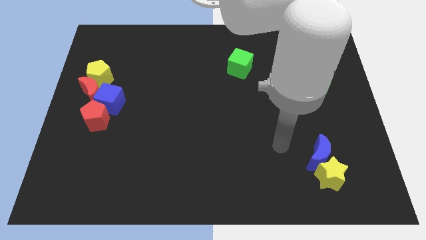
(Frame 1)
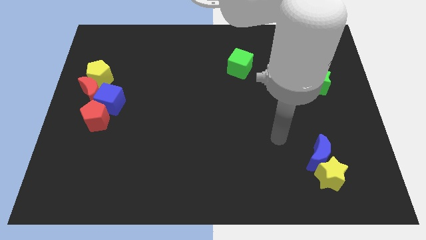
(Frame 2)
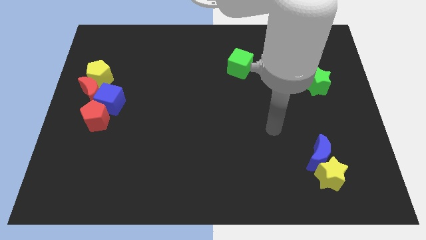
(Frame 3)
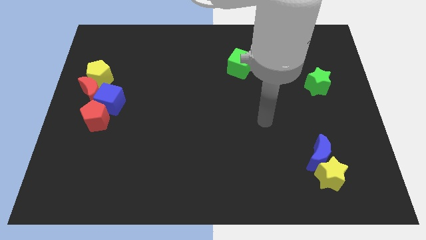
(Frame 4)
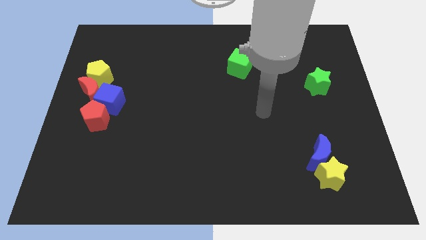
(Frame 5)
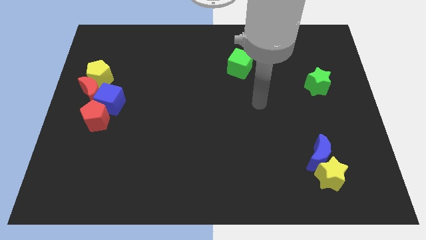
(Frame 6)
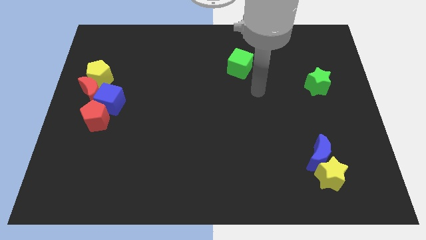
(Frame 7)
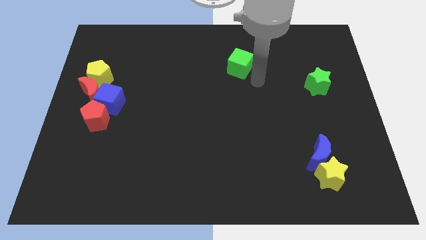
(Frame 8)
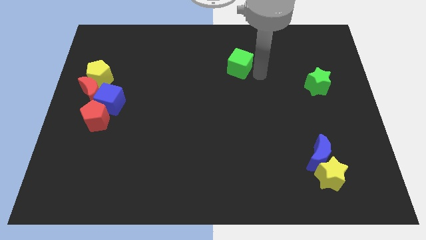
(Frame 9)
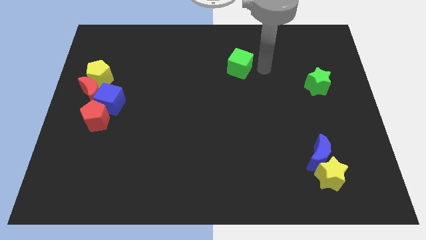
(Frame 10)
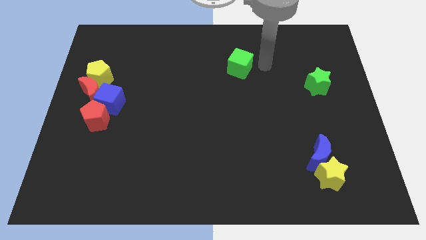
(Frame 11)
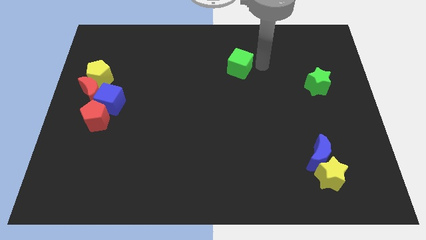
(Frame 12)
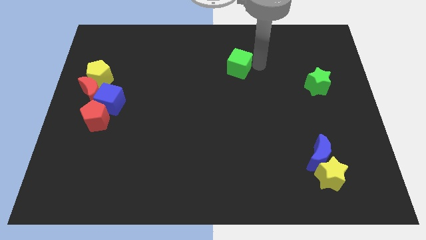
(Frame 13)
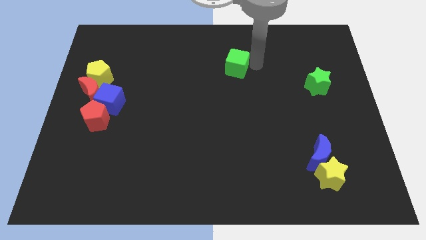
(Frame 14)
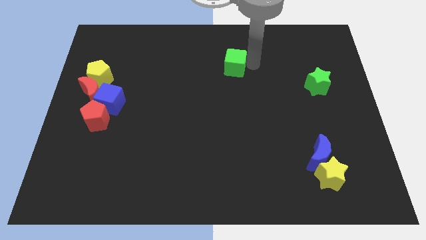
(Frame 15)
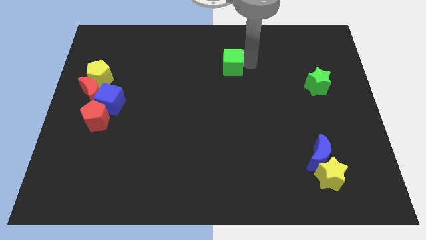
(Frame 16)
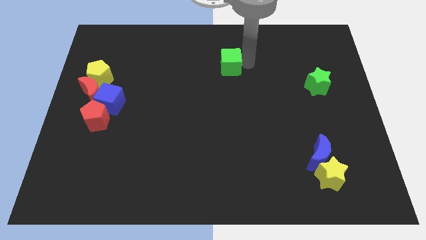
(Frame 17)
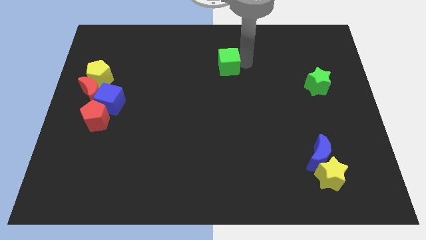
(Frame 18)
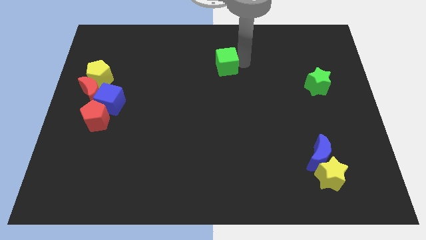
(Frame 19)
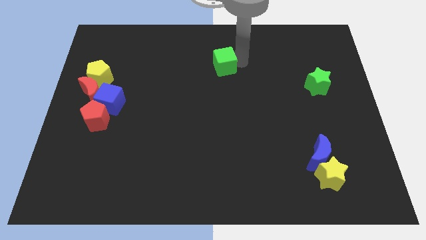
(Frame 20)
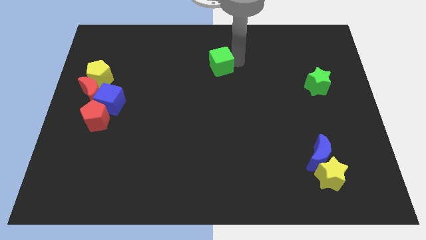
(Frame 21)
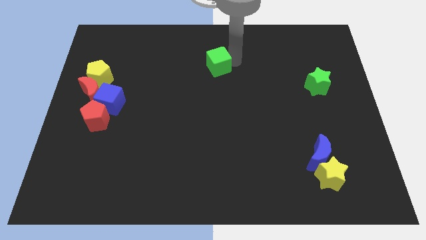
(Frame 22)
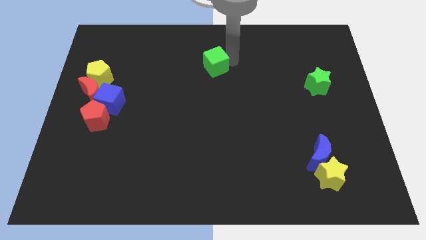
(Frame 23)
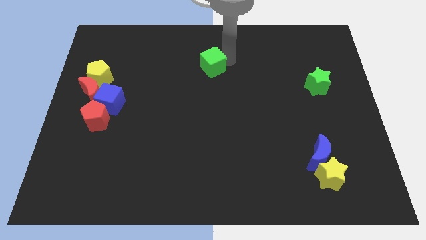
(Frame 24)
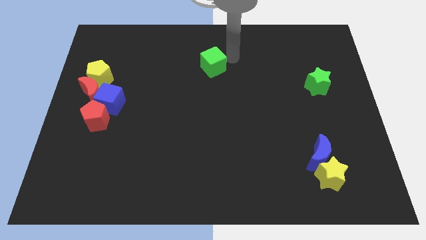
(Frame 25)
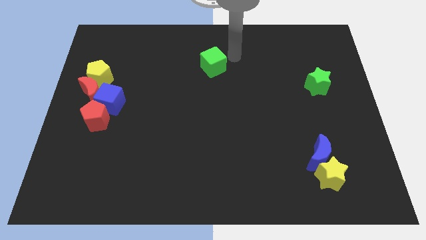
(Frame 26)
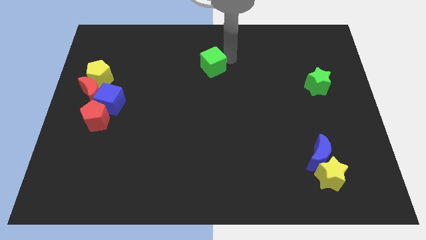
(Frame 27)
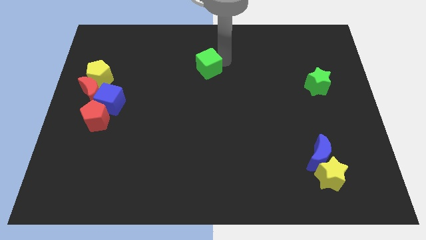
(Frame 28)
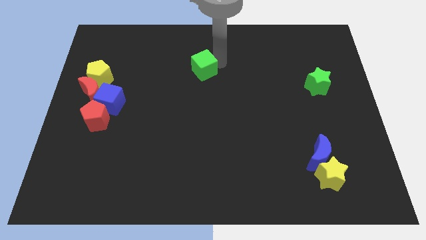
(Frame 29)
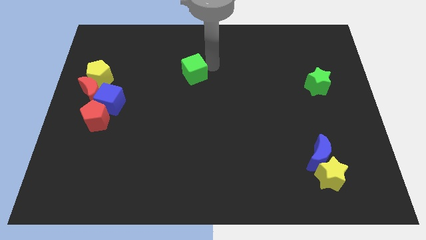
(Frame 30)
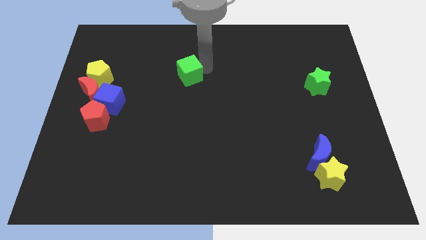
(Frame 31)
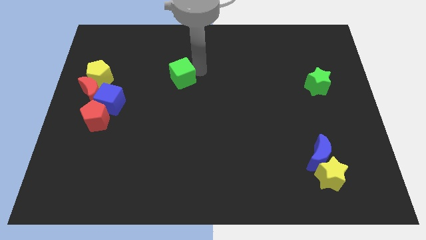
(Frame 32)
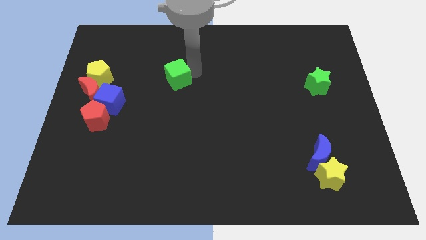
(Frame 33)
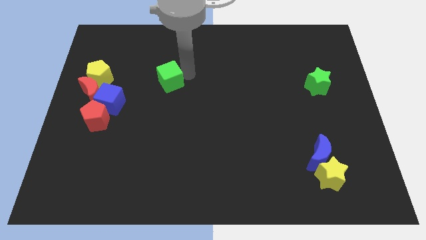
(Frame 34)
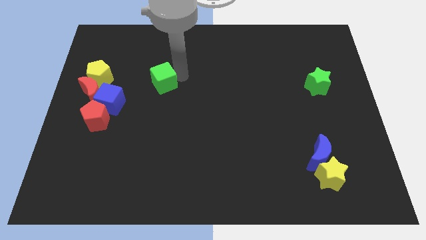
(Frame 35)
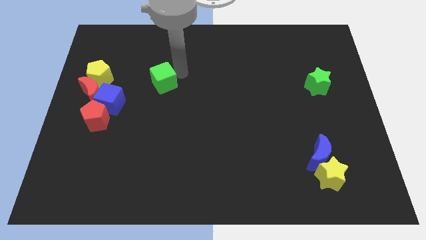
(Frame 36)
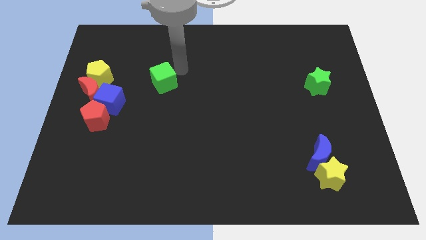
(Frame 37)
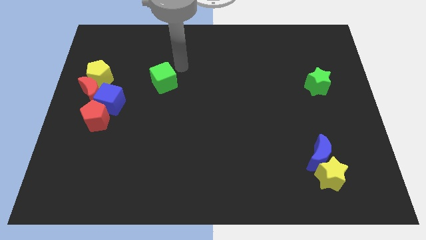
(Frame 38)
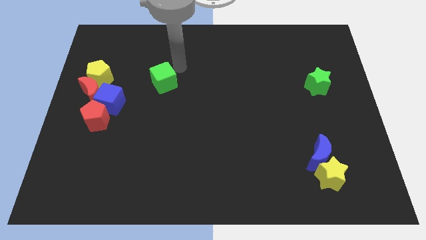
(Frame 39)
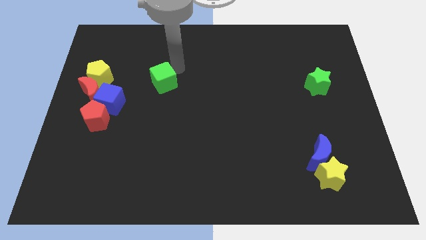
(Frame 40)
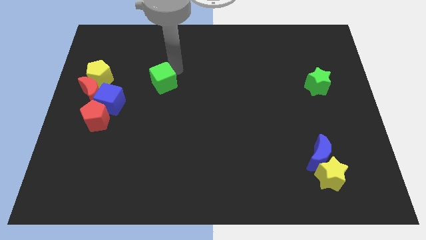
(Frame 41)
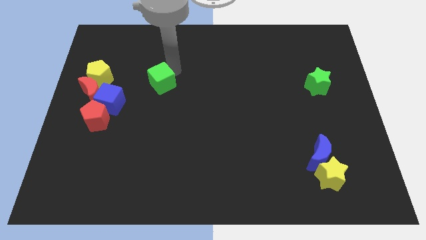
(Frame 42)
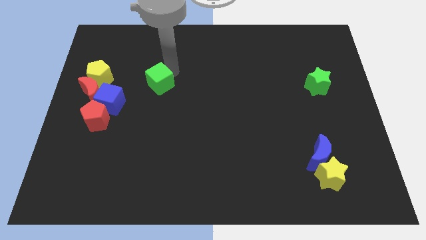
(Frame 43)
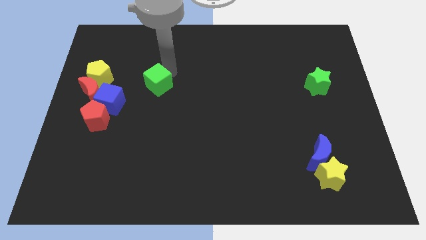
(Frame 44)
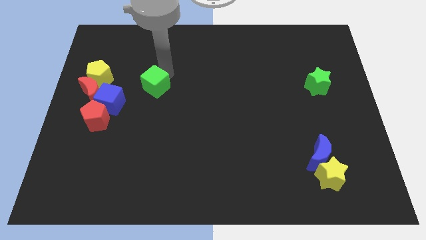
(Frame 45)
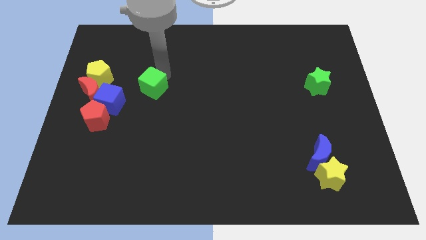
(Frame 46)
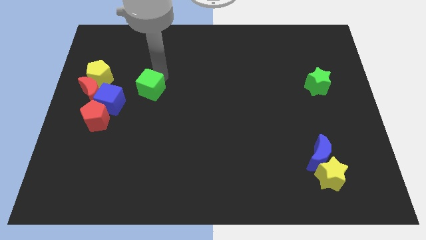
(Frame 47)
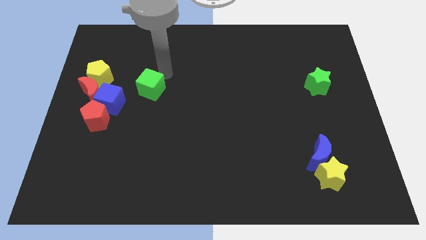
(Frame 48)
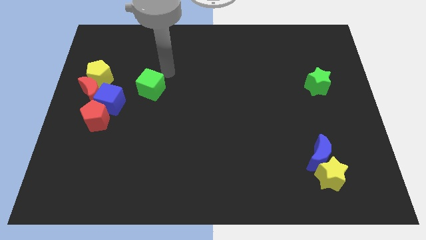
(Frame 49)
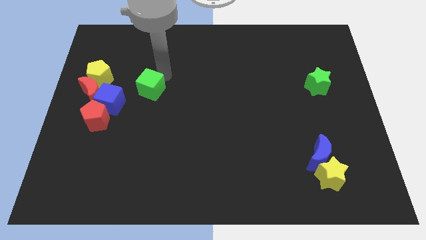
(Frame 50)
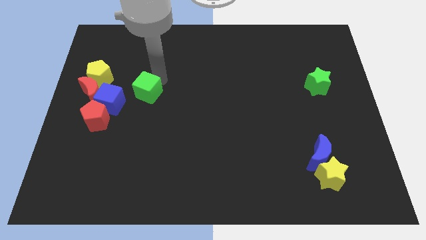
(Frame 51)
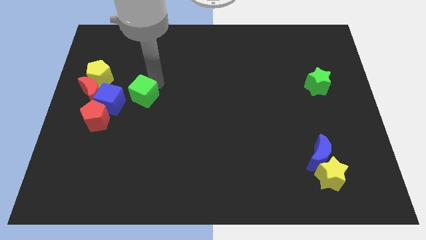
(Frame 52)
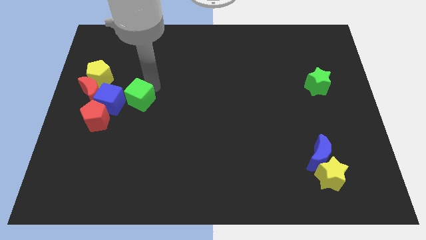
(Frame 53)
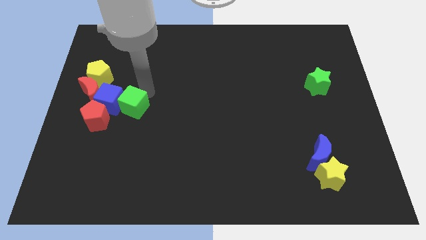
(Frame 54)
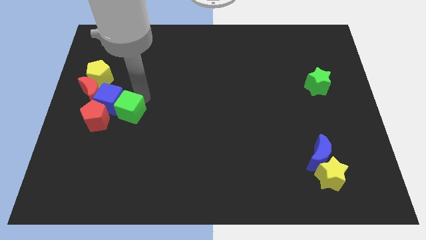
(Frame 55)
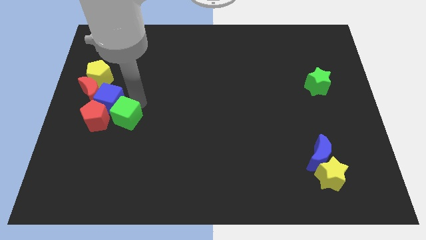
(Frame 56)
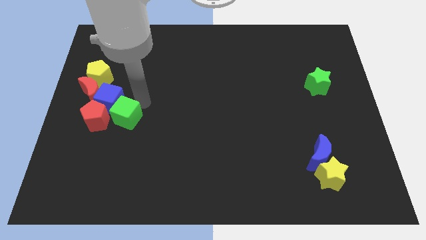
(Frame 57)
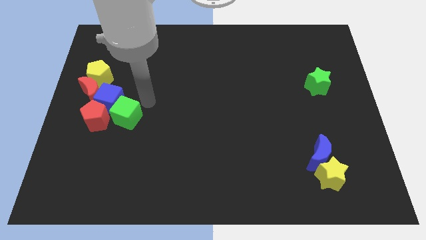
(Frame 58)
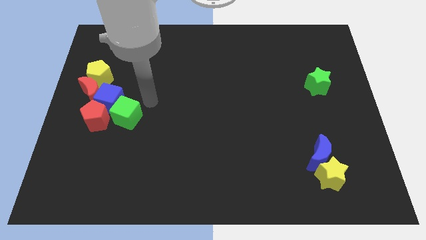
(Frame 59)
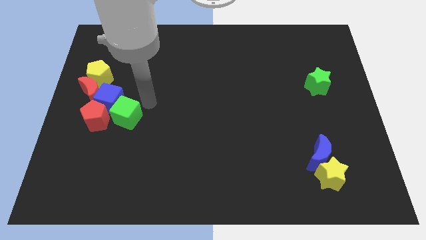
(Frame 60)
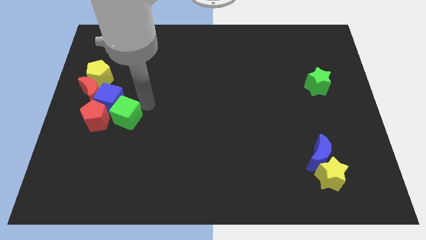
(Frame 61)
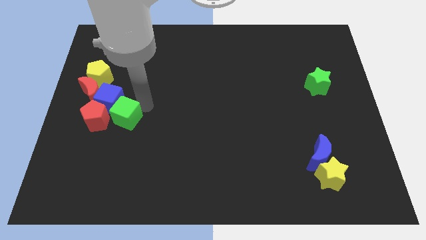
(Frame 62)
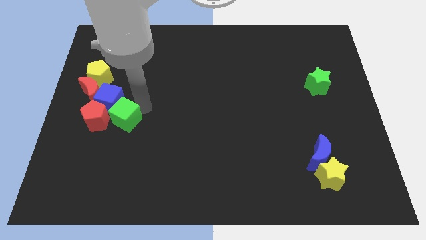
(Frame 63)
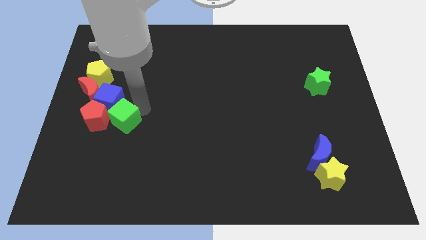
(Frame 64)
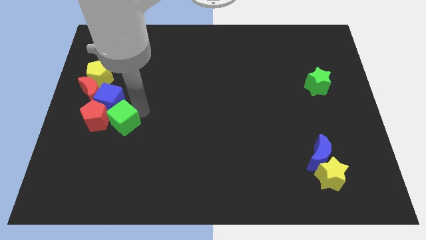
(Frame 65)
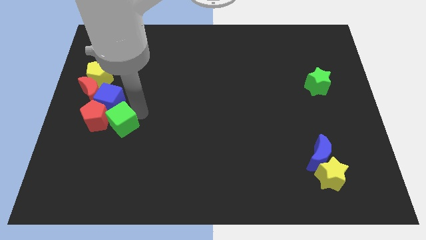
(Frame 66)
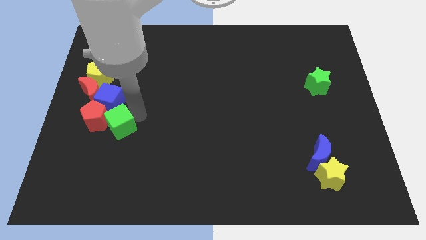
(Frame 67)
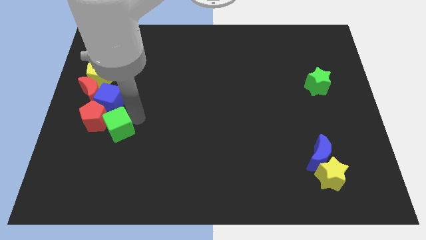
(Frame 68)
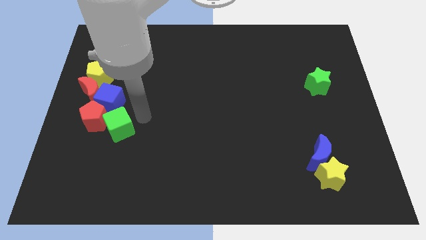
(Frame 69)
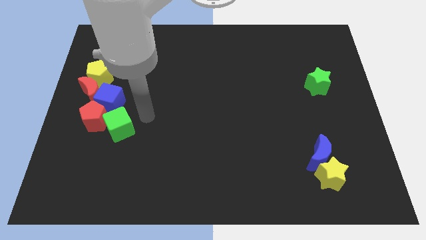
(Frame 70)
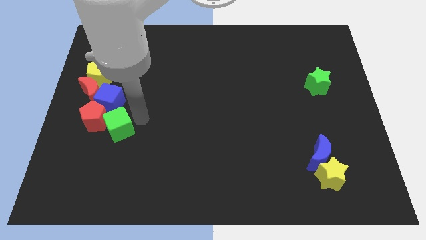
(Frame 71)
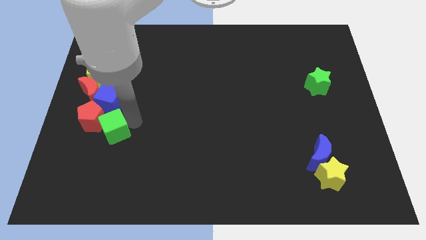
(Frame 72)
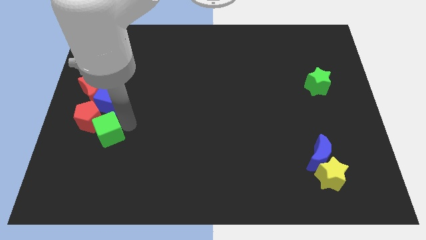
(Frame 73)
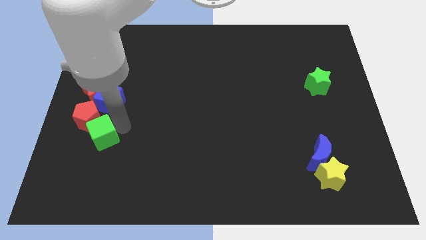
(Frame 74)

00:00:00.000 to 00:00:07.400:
slide the green cube to the bottom side of the red moon
